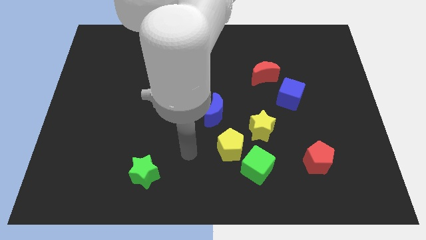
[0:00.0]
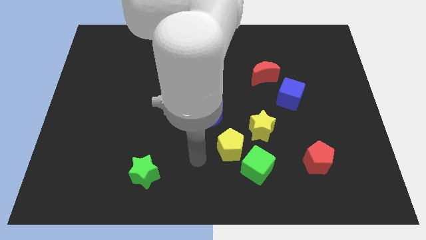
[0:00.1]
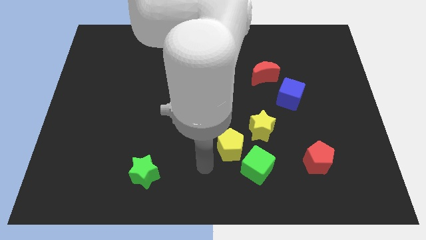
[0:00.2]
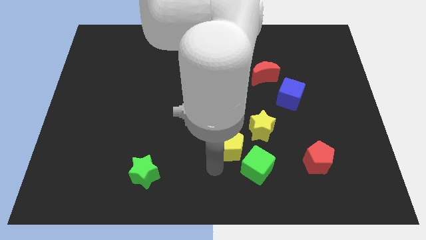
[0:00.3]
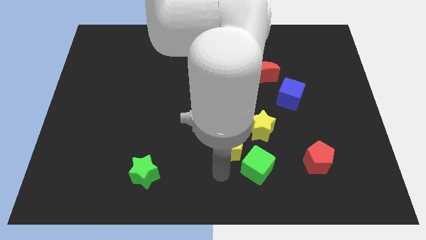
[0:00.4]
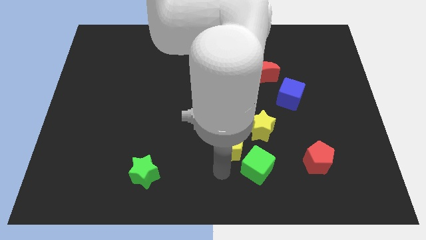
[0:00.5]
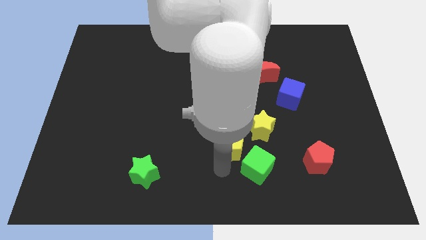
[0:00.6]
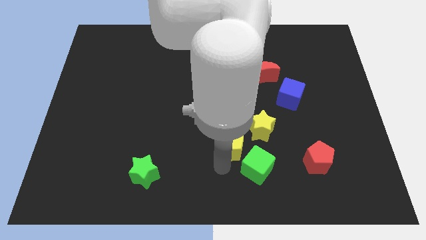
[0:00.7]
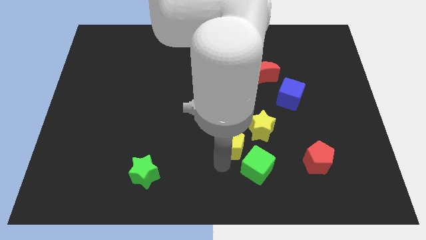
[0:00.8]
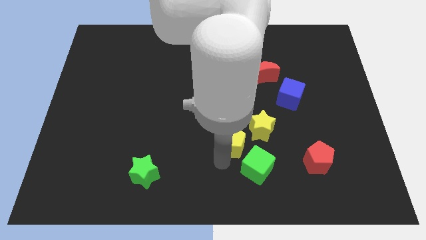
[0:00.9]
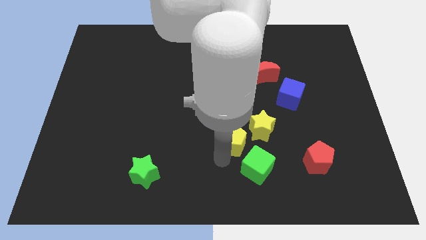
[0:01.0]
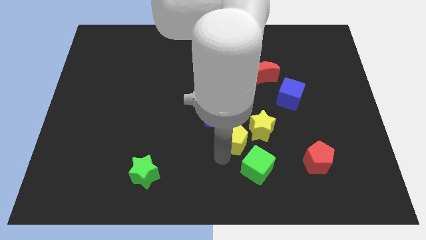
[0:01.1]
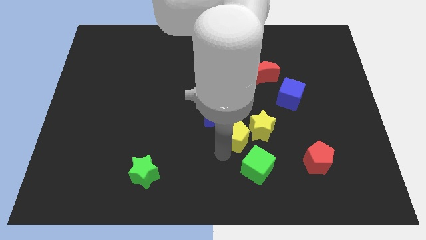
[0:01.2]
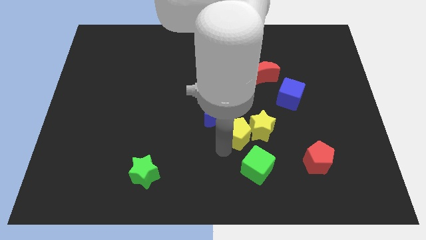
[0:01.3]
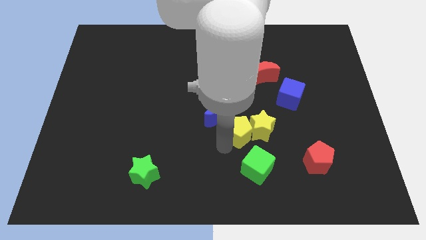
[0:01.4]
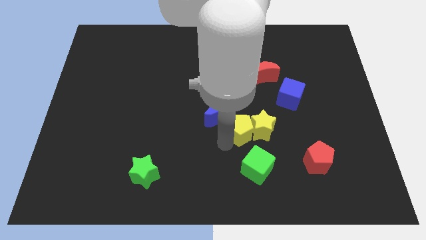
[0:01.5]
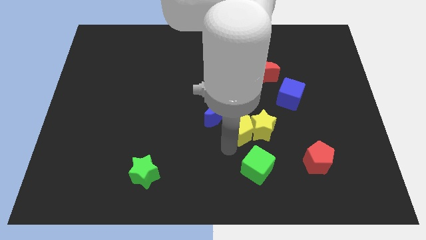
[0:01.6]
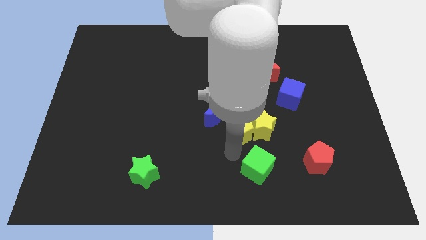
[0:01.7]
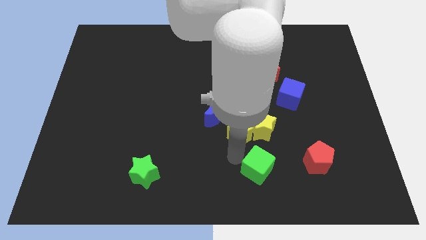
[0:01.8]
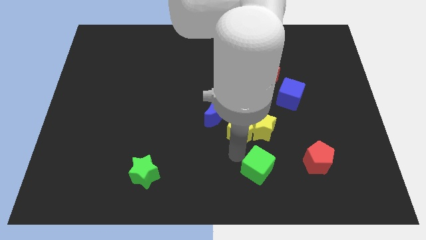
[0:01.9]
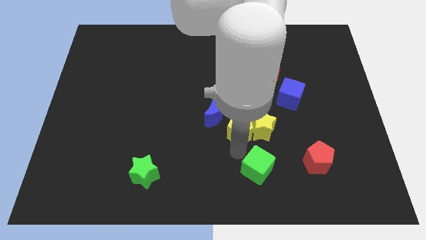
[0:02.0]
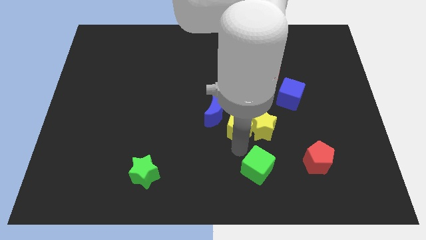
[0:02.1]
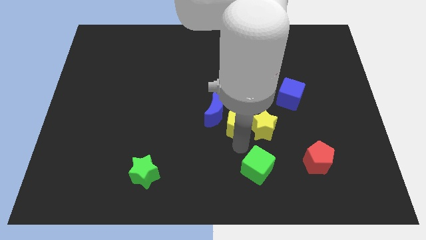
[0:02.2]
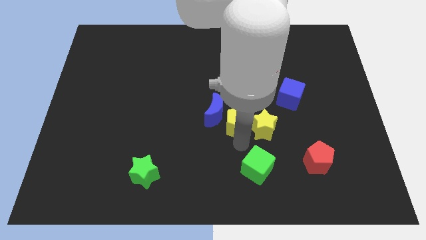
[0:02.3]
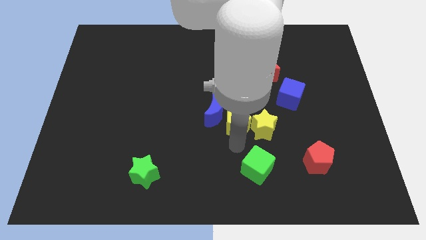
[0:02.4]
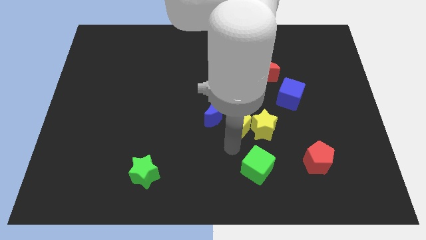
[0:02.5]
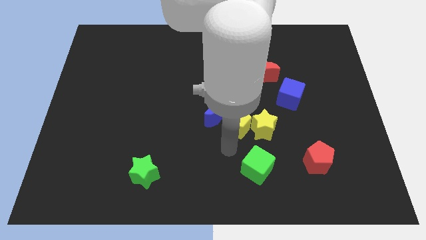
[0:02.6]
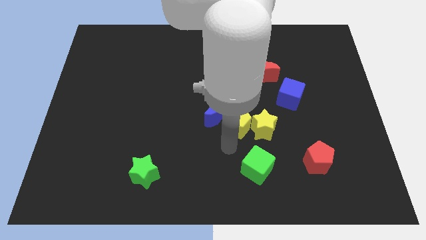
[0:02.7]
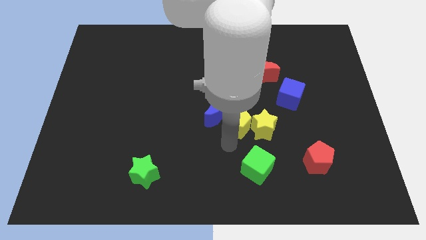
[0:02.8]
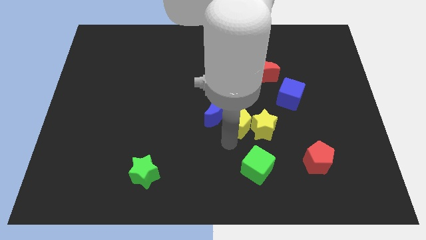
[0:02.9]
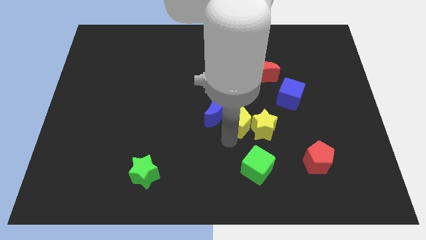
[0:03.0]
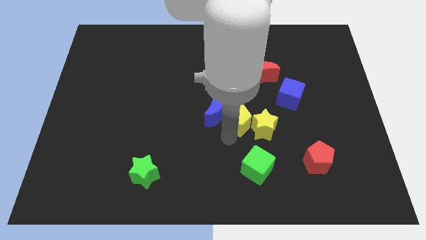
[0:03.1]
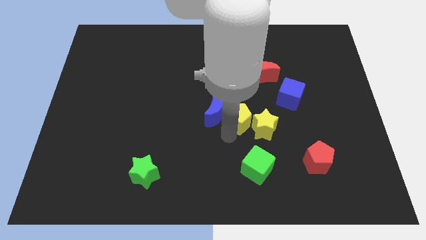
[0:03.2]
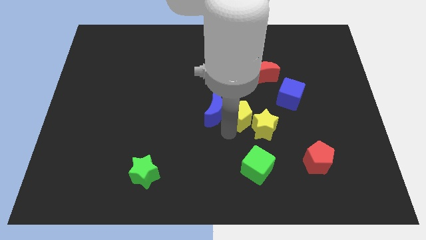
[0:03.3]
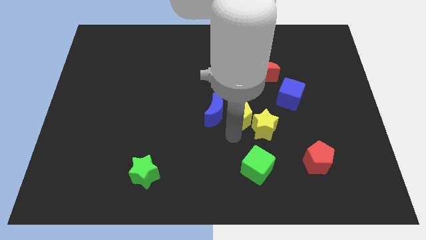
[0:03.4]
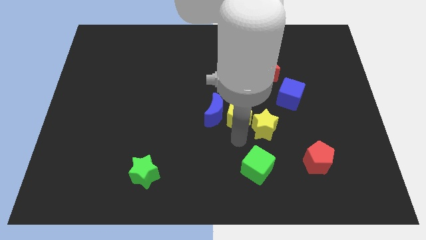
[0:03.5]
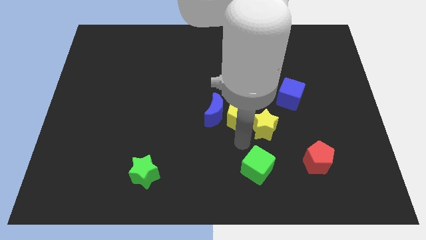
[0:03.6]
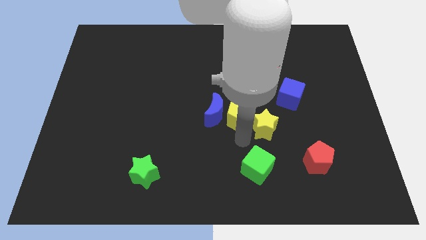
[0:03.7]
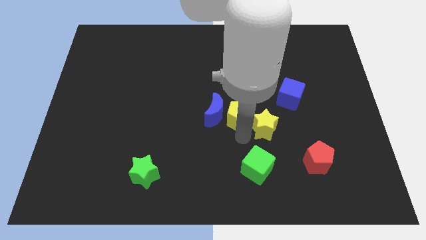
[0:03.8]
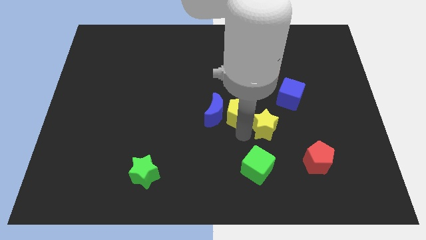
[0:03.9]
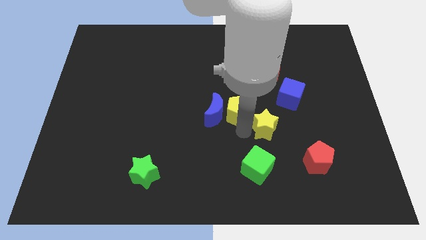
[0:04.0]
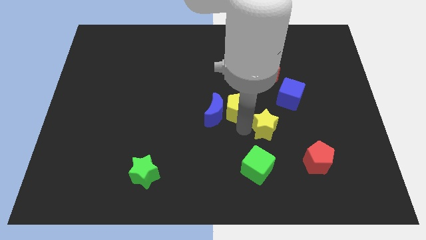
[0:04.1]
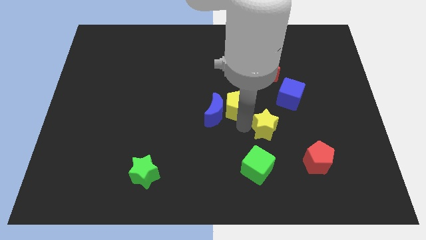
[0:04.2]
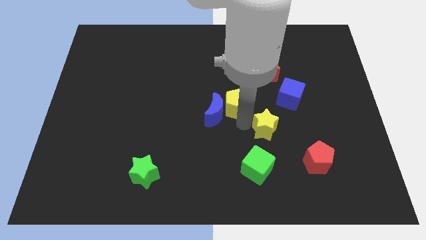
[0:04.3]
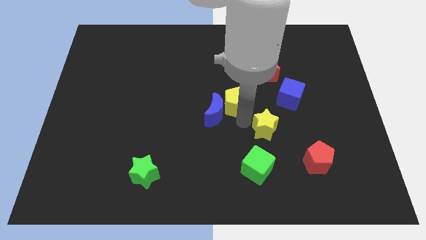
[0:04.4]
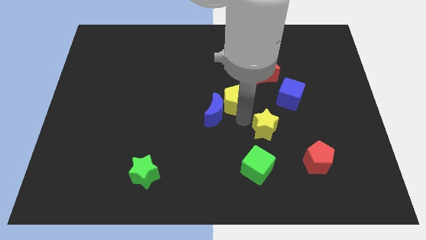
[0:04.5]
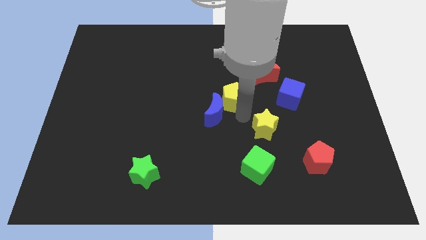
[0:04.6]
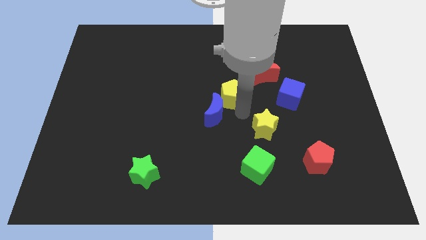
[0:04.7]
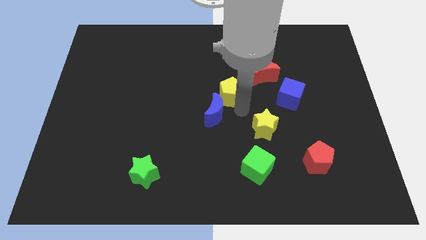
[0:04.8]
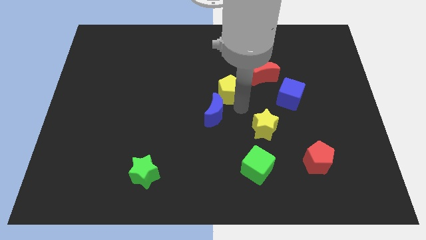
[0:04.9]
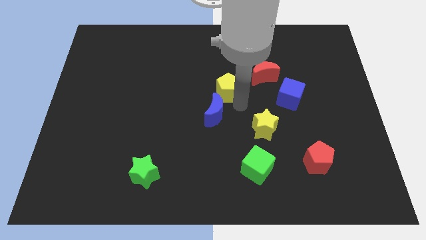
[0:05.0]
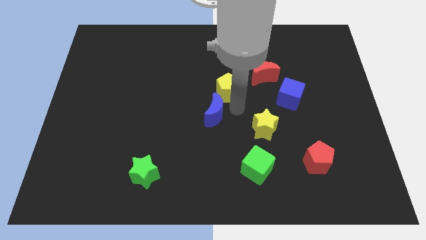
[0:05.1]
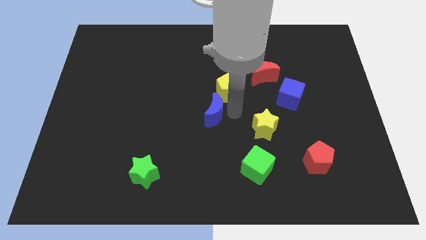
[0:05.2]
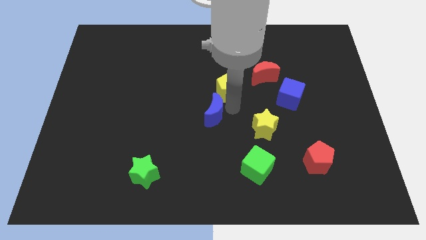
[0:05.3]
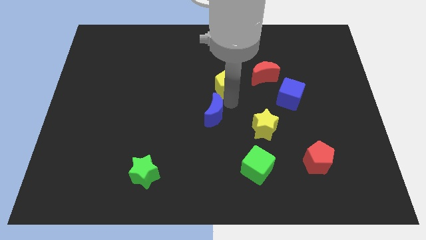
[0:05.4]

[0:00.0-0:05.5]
push the yellow pentagon to the left side of the red moon

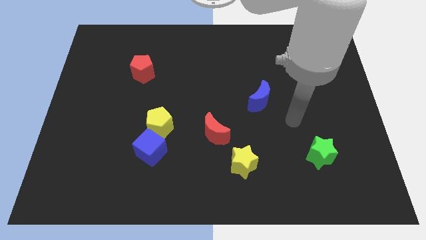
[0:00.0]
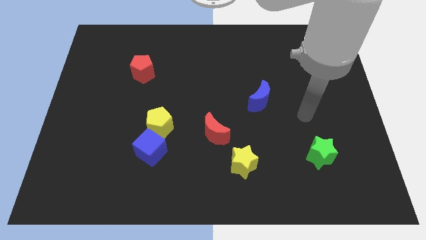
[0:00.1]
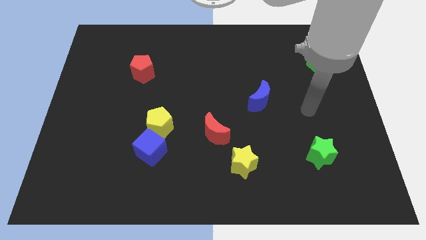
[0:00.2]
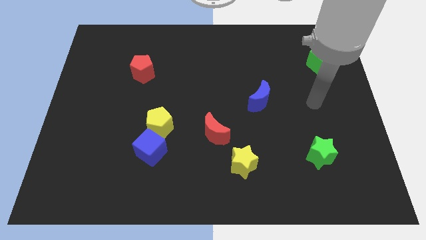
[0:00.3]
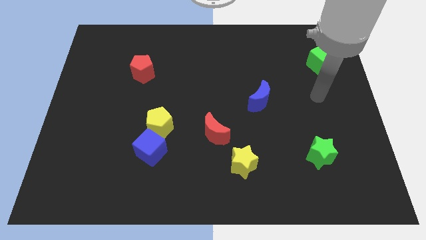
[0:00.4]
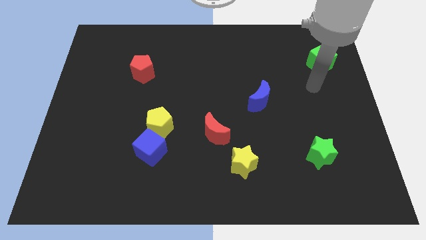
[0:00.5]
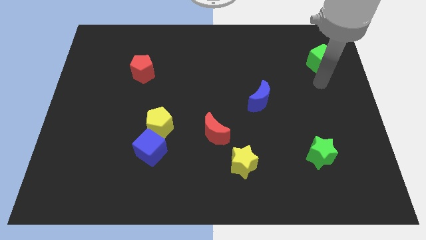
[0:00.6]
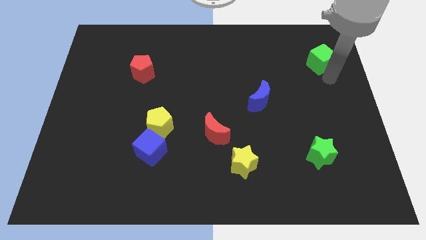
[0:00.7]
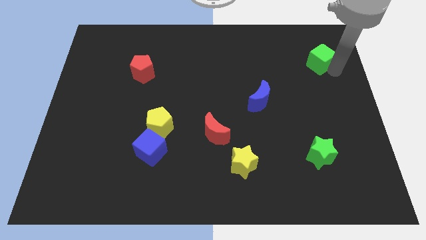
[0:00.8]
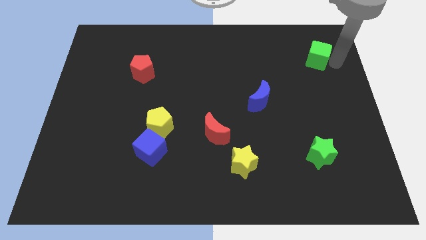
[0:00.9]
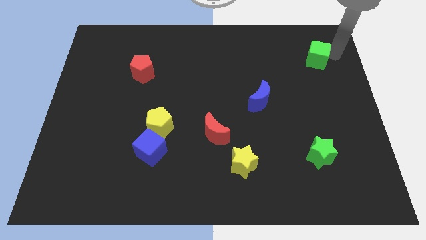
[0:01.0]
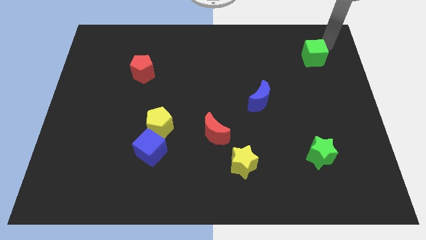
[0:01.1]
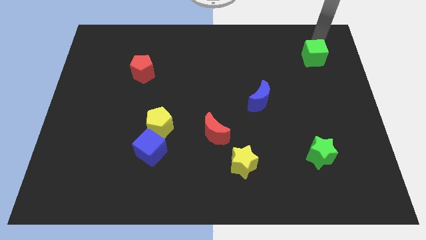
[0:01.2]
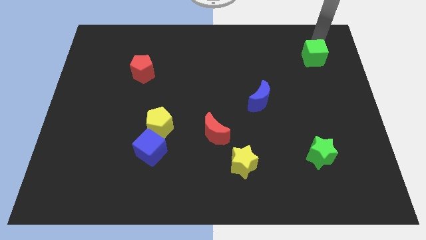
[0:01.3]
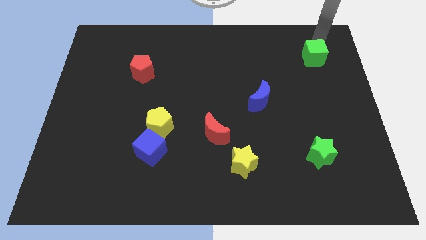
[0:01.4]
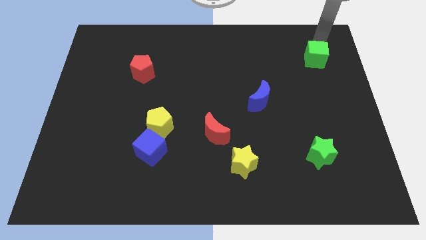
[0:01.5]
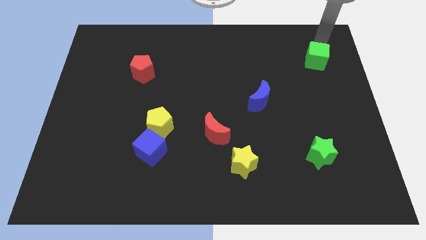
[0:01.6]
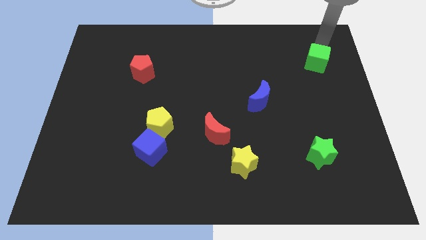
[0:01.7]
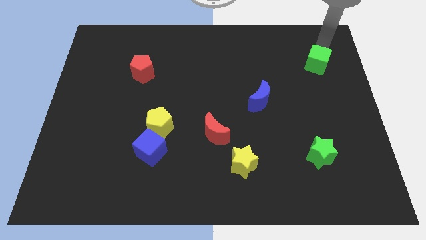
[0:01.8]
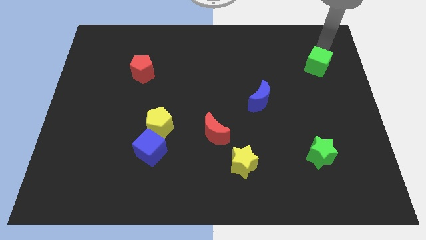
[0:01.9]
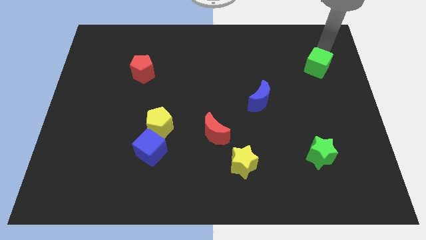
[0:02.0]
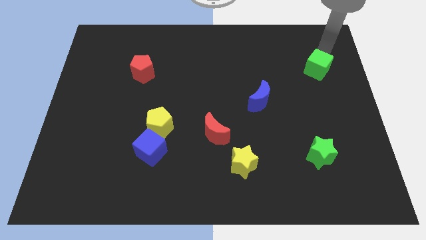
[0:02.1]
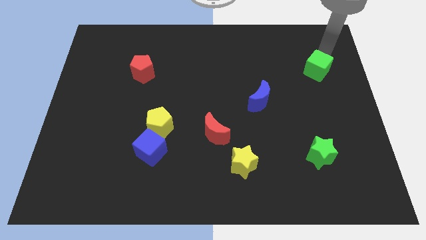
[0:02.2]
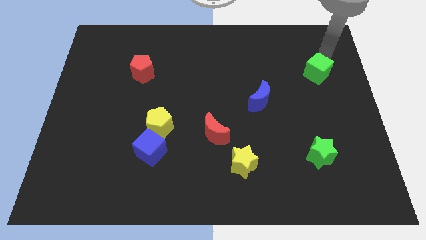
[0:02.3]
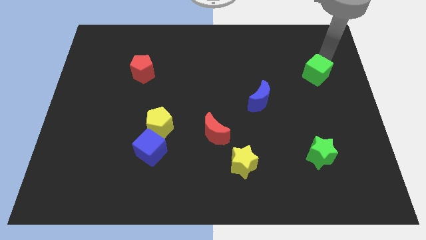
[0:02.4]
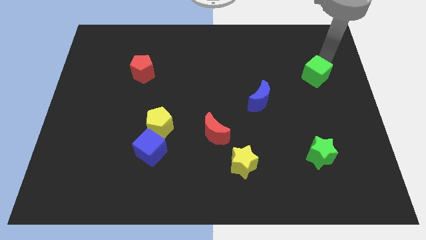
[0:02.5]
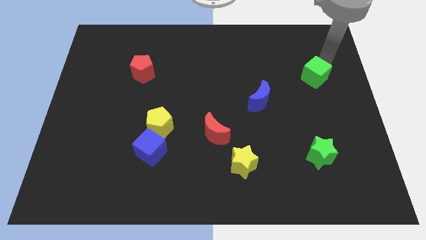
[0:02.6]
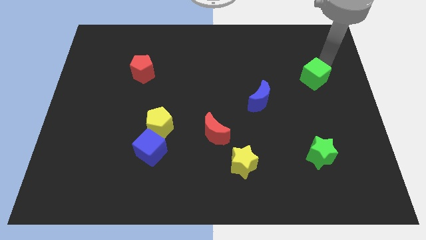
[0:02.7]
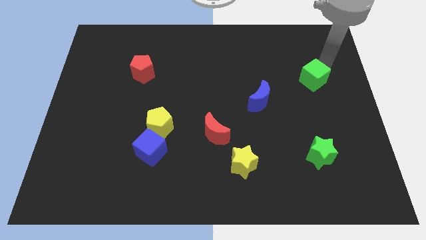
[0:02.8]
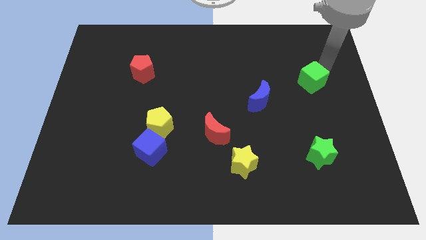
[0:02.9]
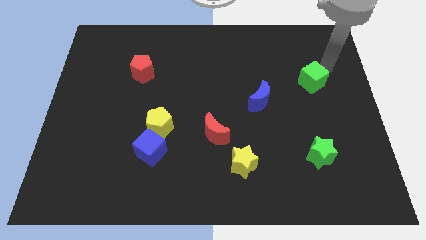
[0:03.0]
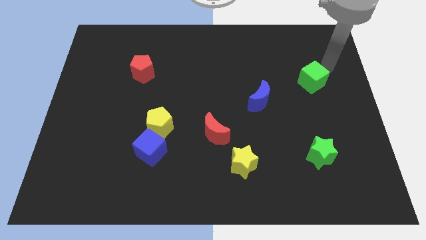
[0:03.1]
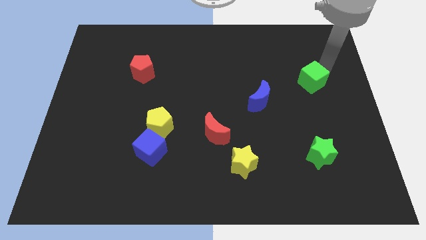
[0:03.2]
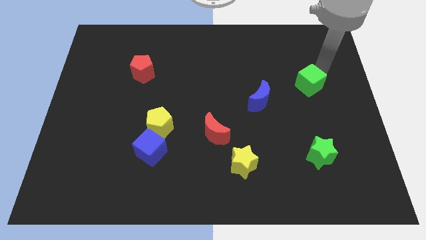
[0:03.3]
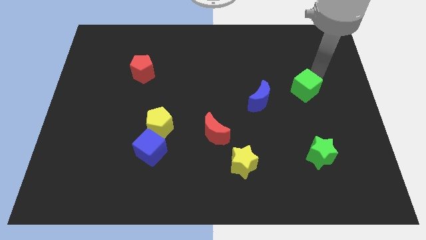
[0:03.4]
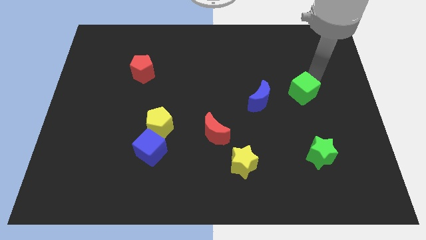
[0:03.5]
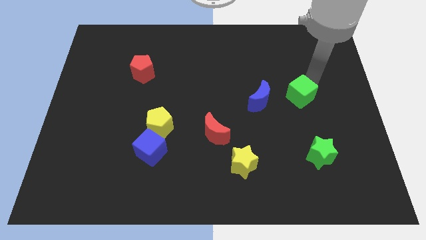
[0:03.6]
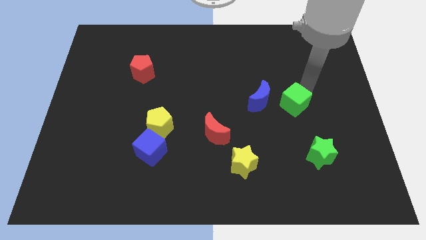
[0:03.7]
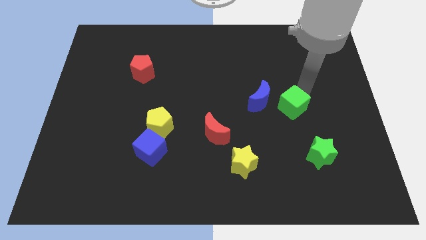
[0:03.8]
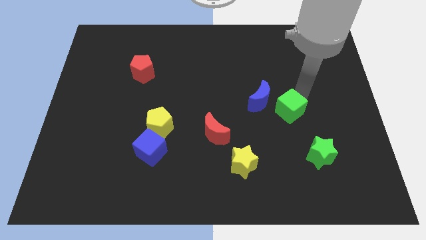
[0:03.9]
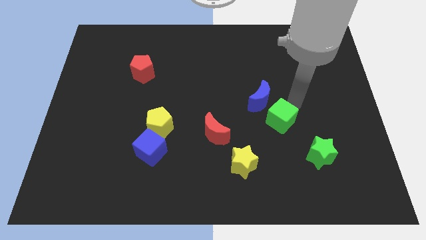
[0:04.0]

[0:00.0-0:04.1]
push the green cube to the bottom of the blue moon
